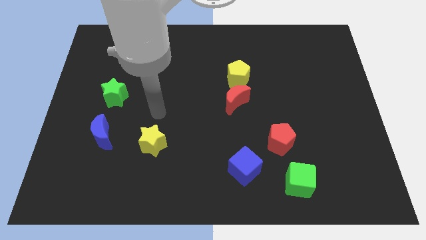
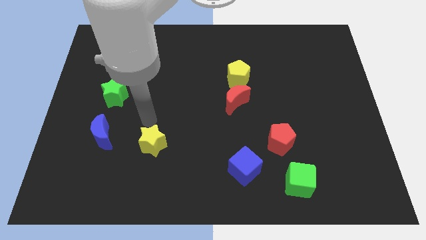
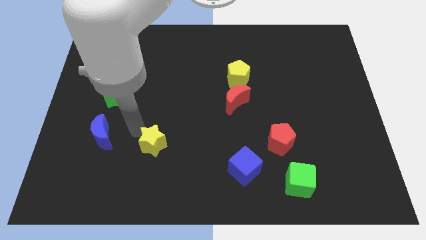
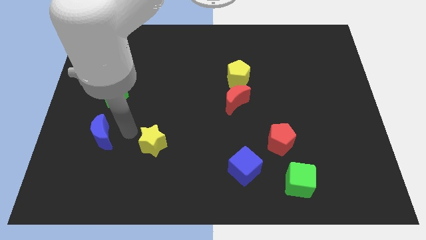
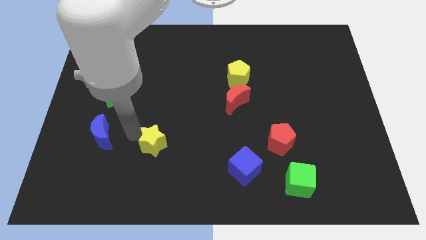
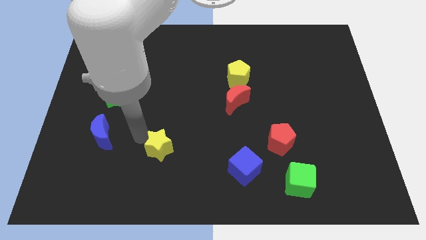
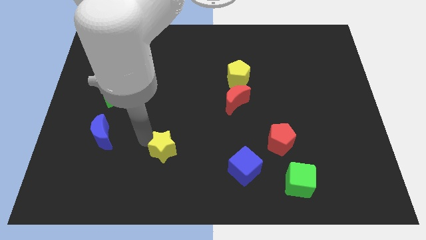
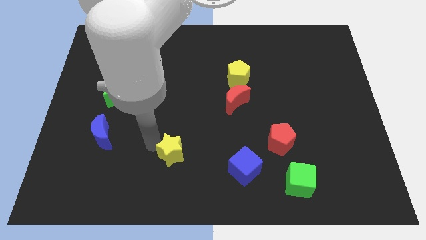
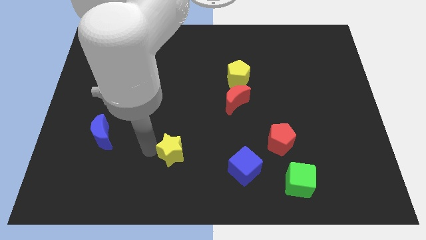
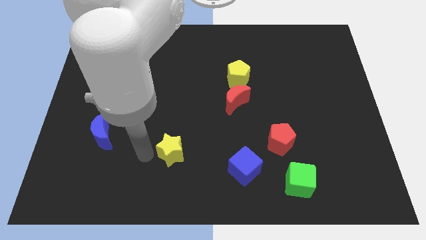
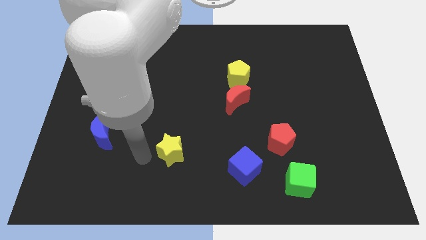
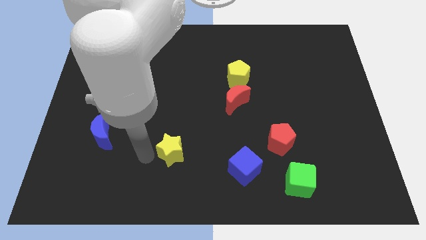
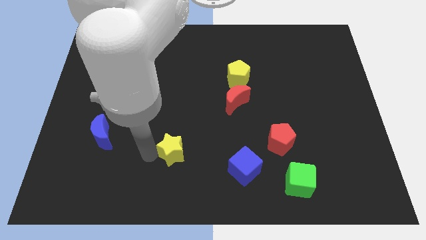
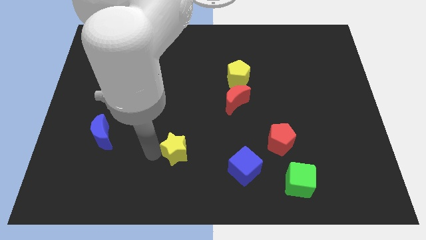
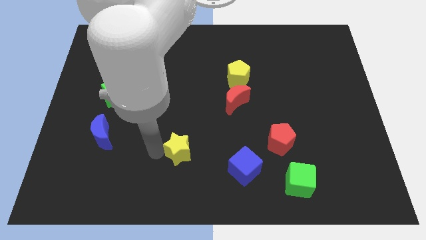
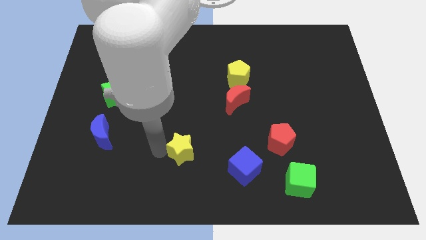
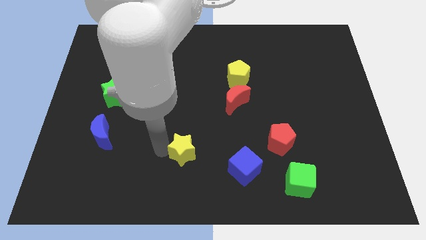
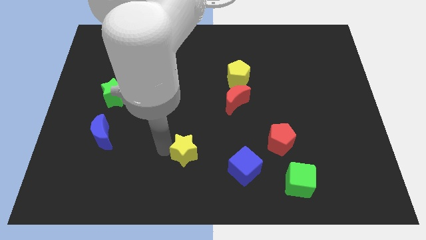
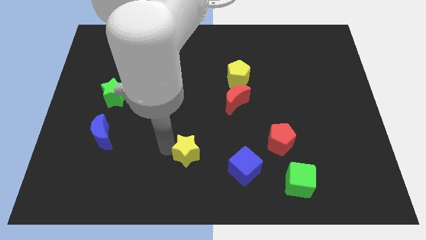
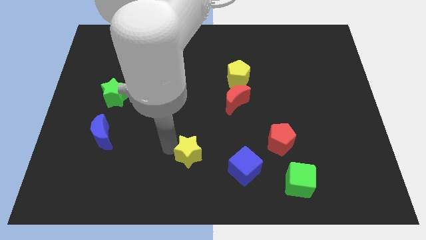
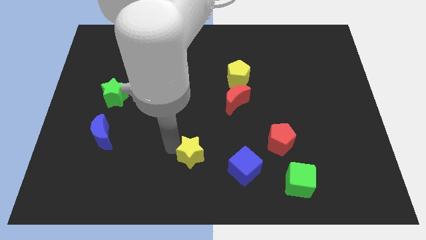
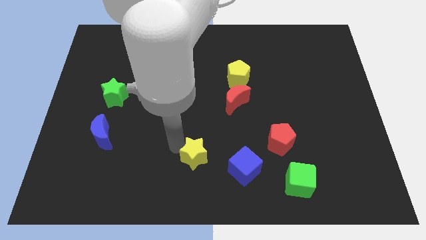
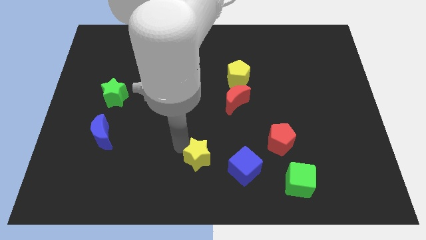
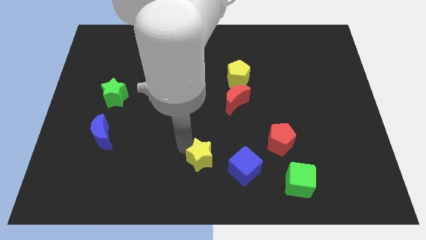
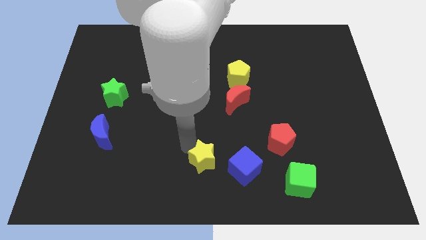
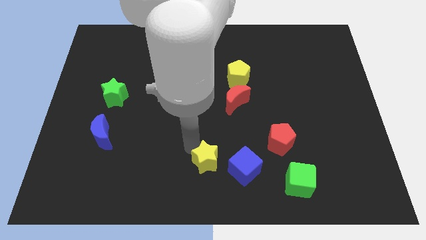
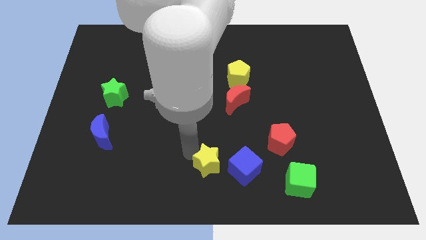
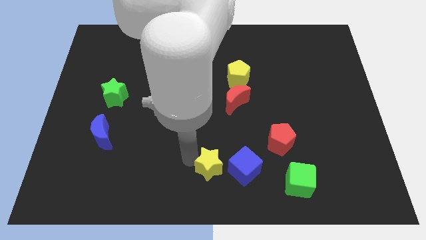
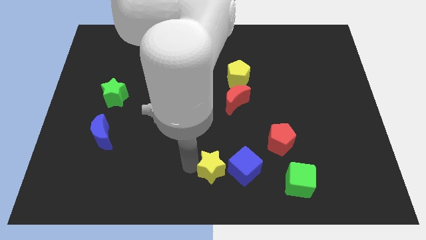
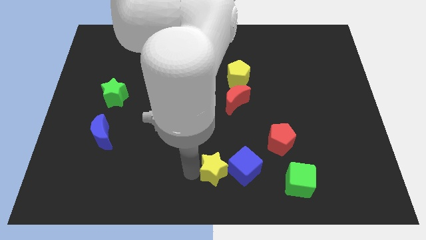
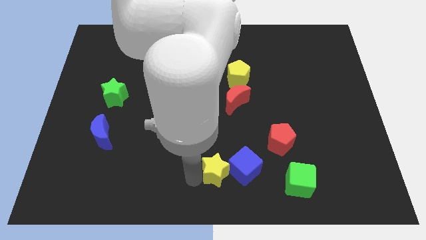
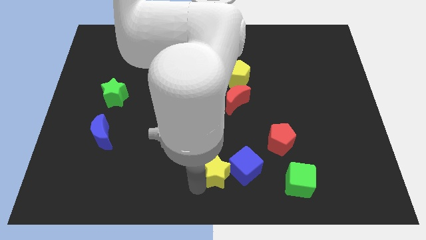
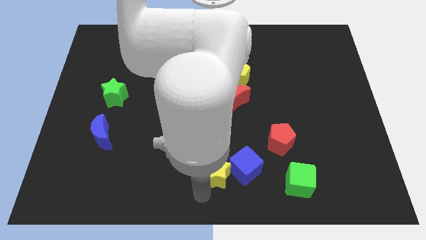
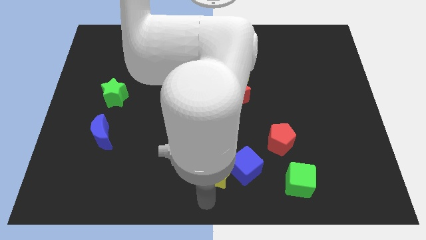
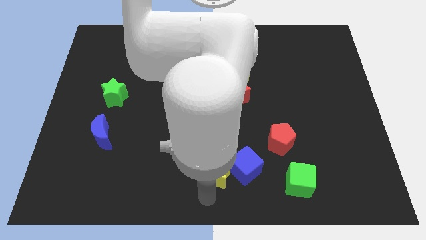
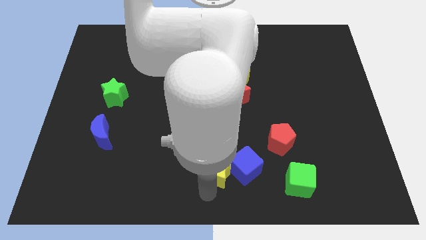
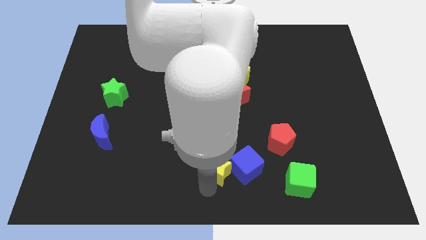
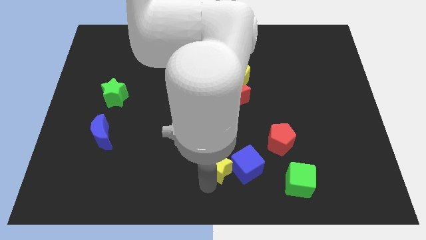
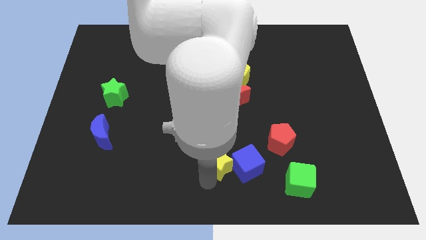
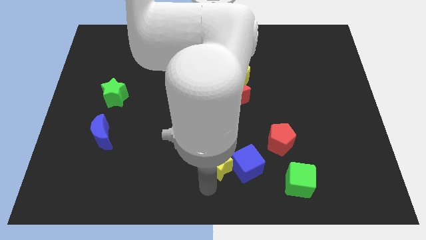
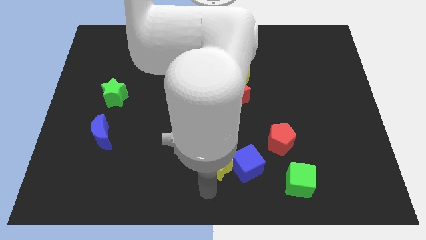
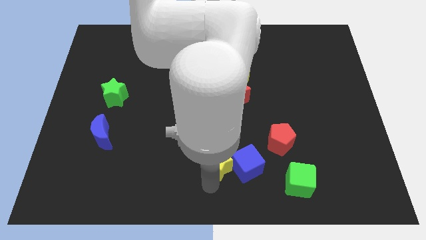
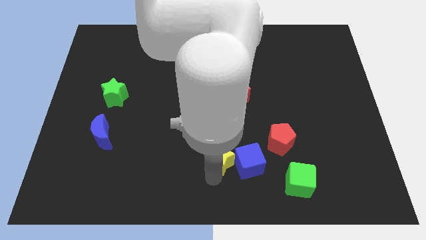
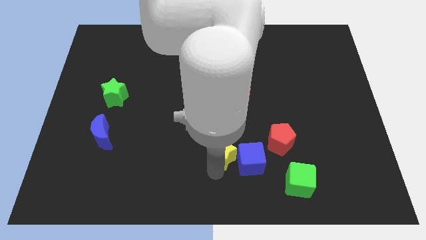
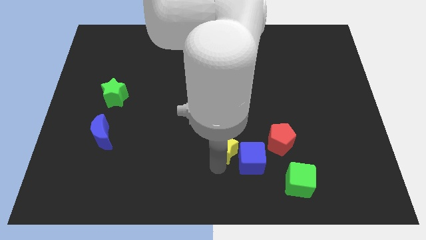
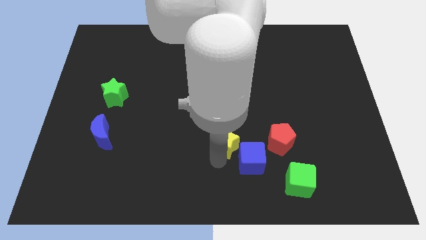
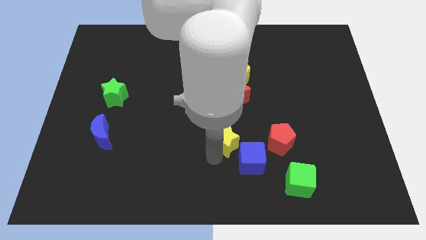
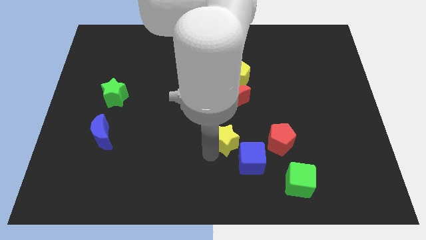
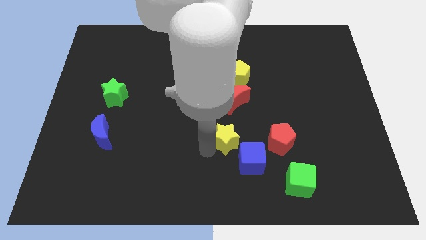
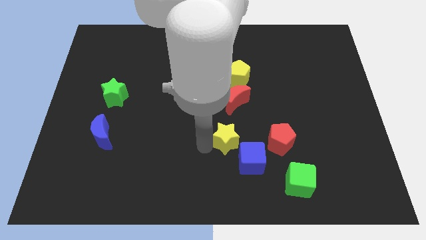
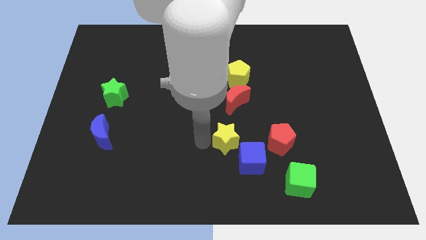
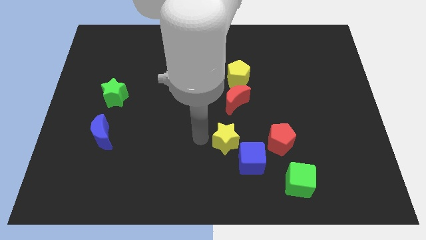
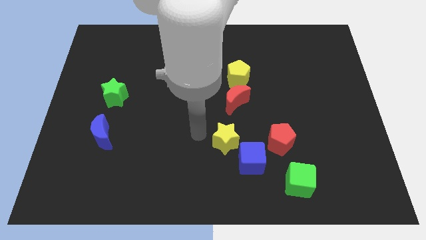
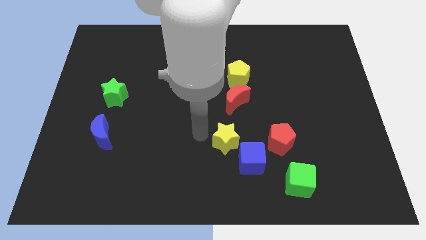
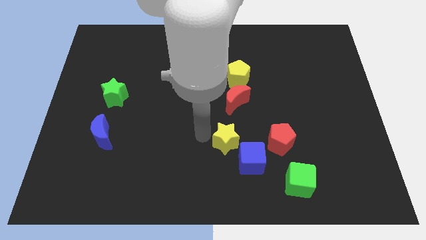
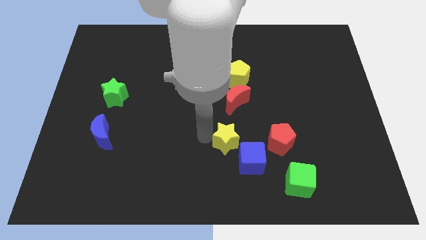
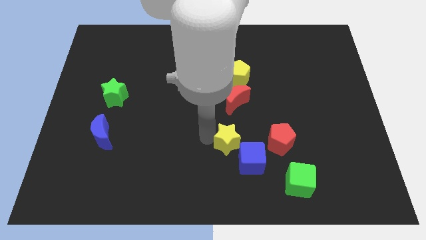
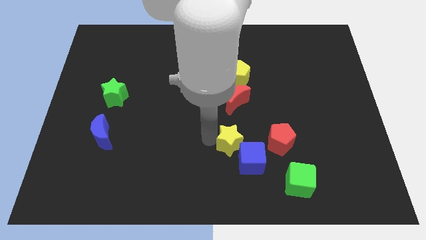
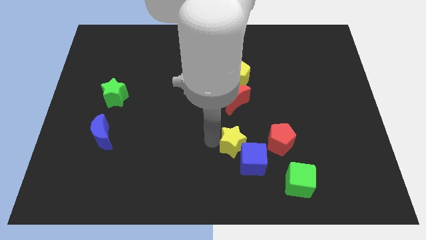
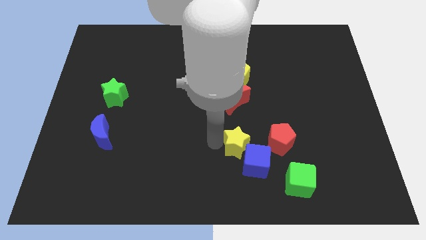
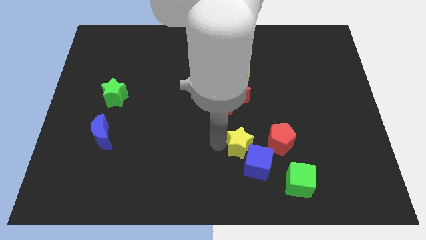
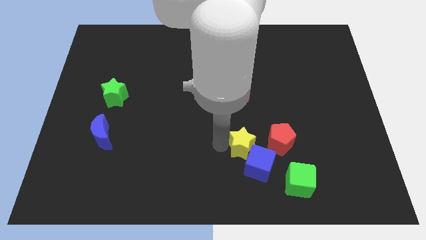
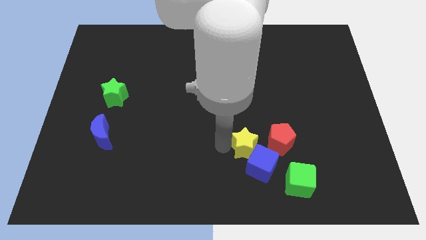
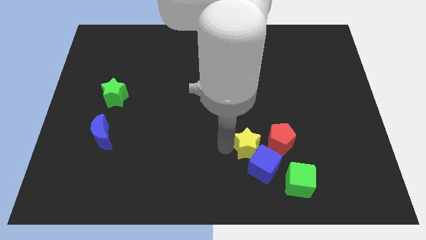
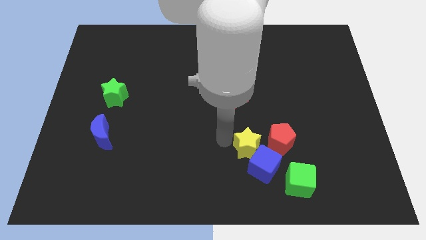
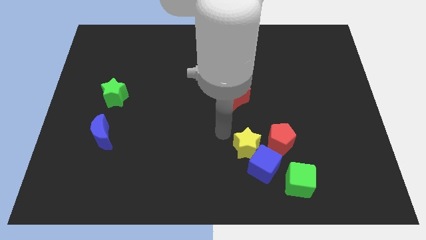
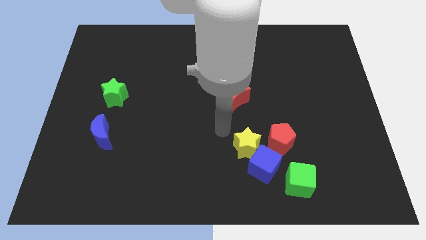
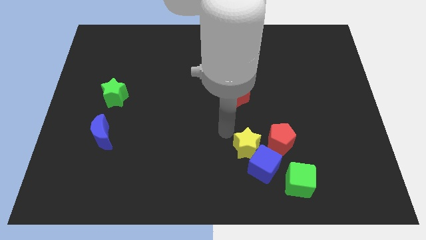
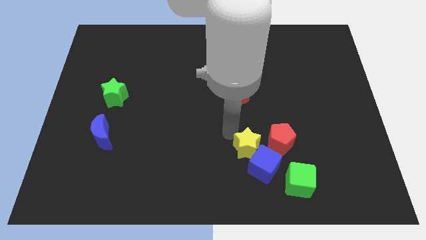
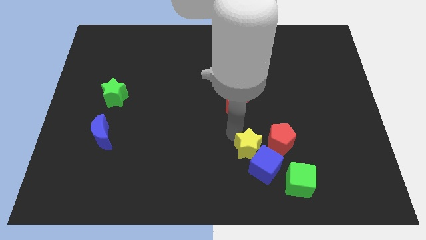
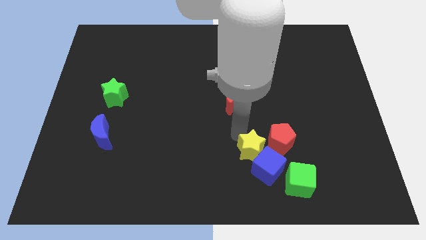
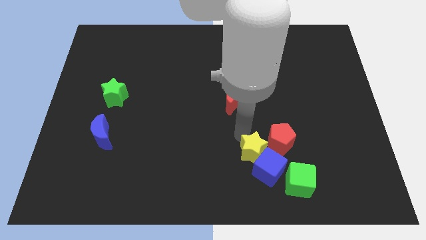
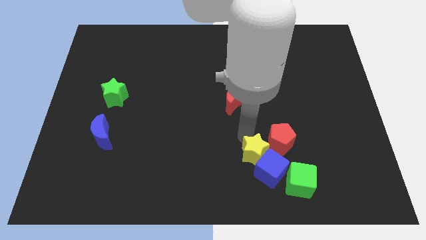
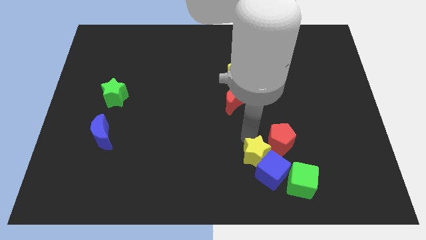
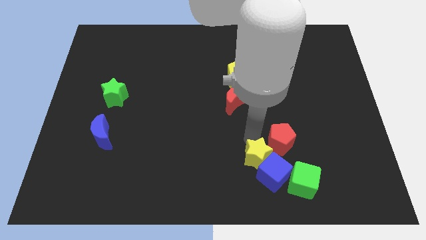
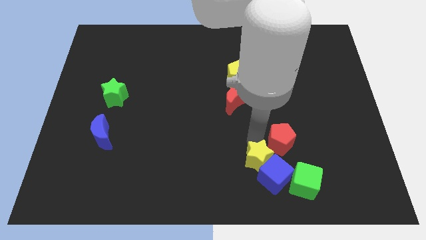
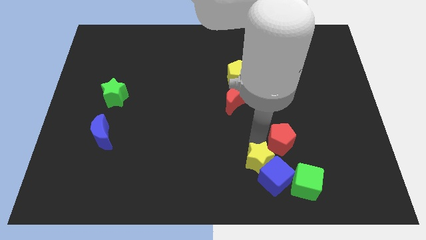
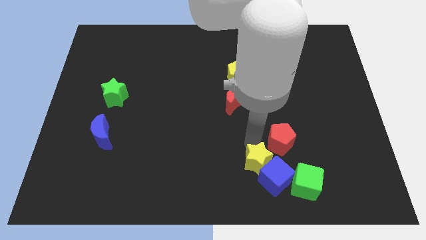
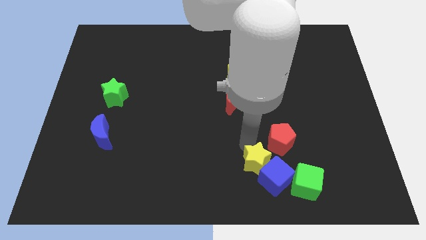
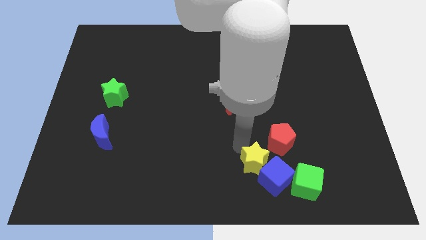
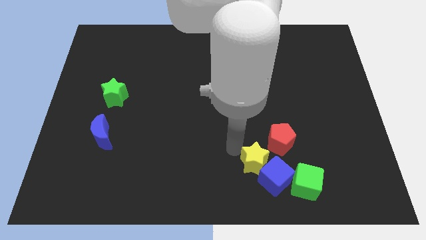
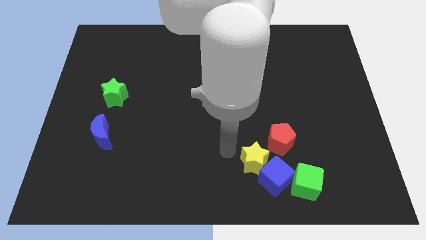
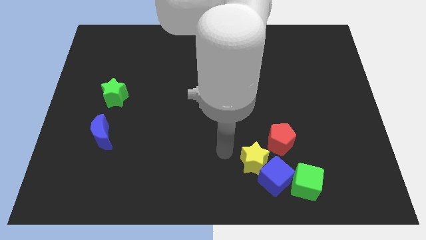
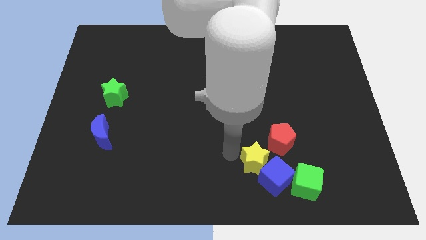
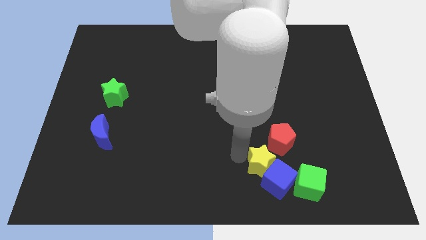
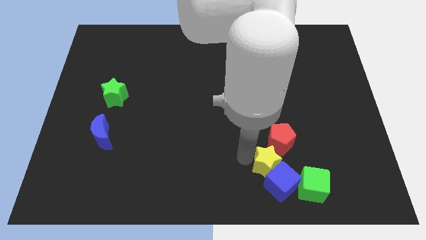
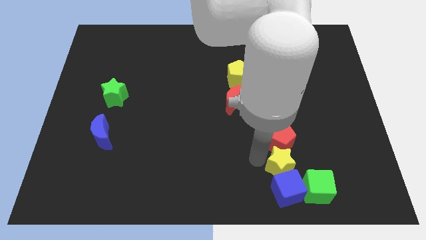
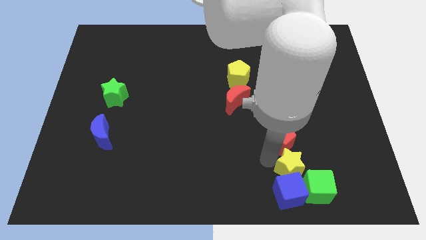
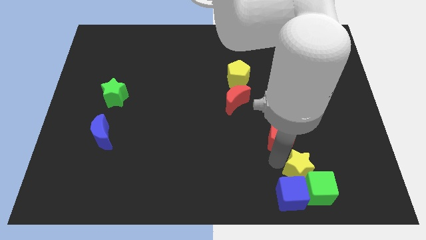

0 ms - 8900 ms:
move the yellow star to the green cube
